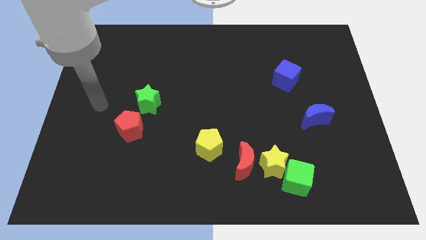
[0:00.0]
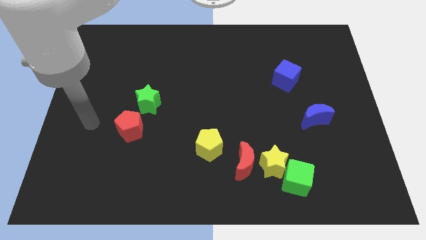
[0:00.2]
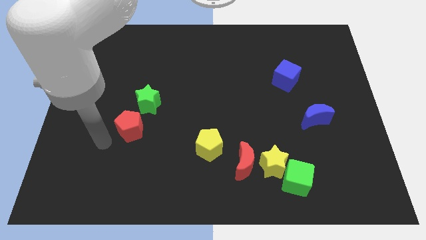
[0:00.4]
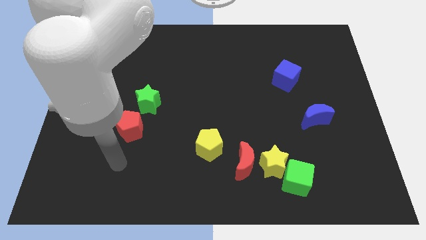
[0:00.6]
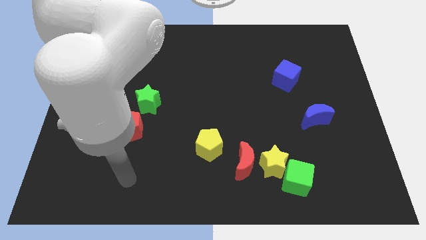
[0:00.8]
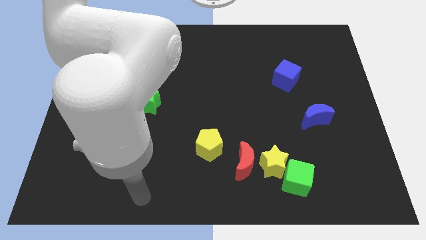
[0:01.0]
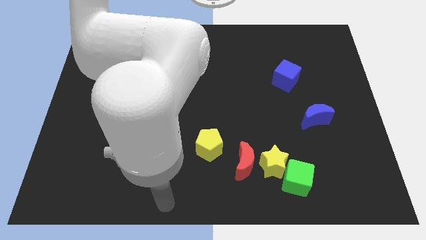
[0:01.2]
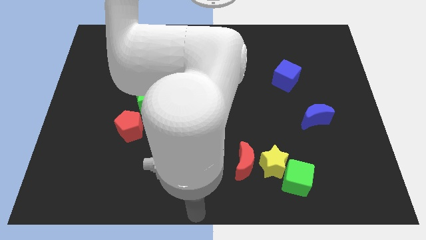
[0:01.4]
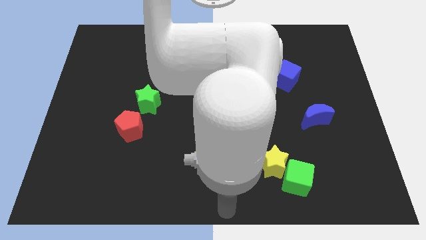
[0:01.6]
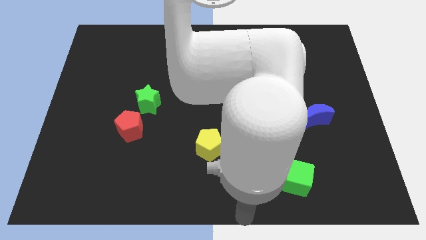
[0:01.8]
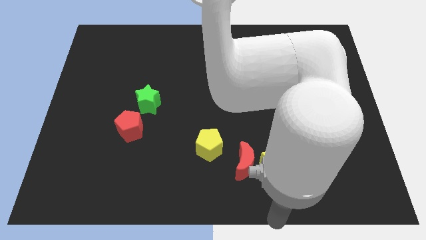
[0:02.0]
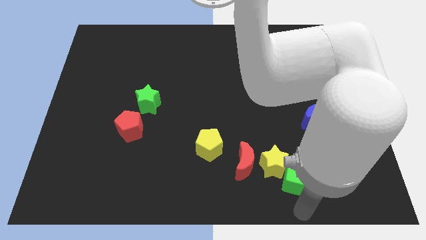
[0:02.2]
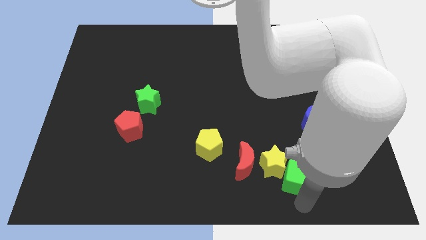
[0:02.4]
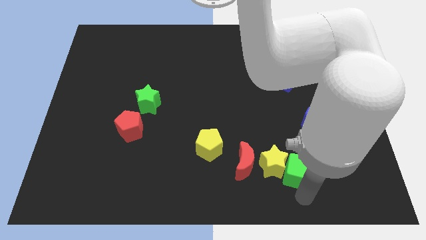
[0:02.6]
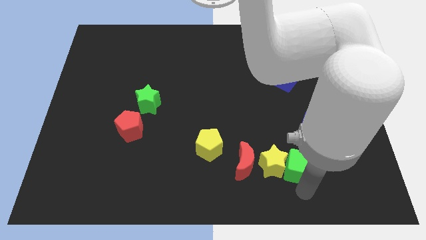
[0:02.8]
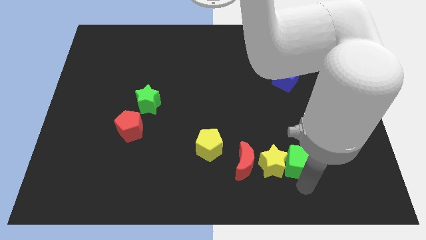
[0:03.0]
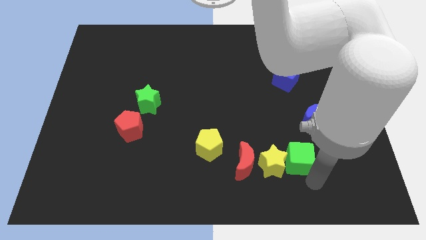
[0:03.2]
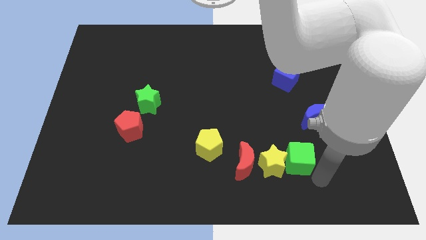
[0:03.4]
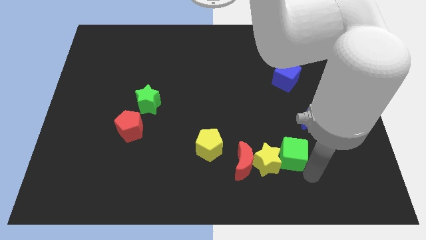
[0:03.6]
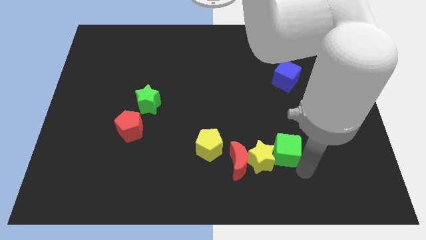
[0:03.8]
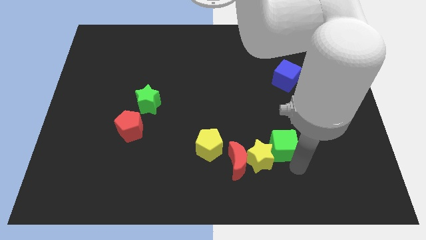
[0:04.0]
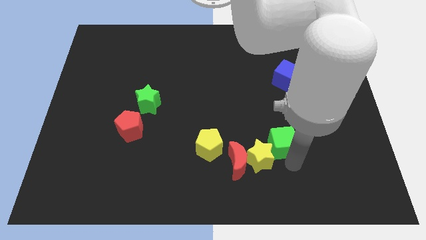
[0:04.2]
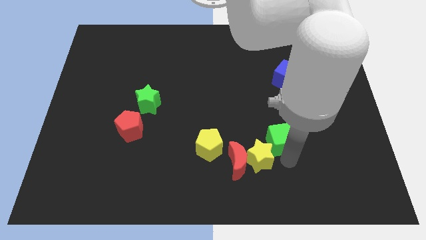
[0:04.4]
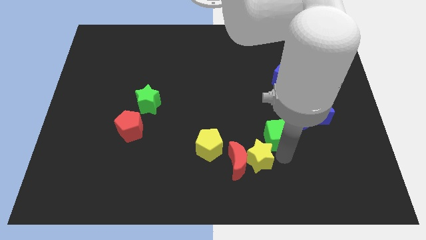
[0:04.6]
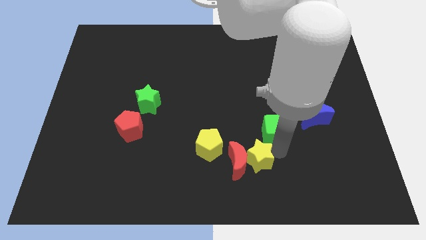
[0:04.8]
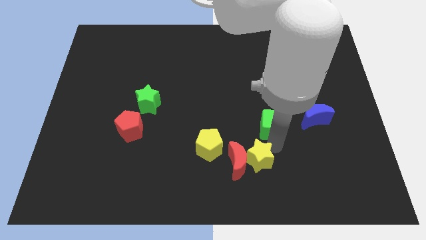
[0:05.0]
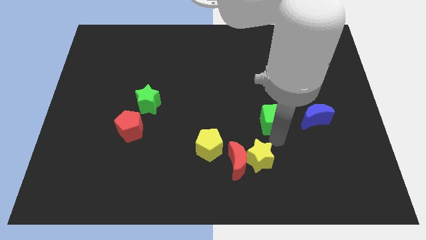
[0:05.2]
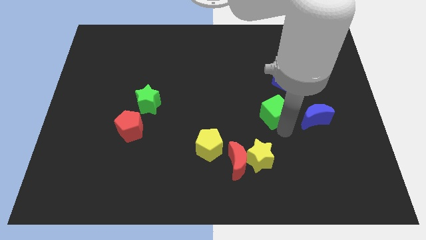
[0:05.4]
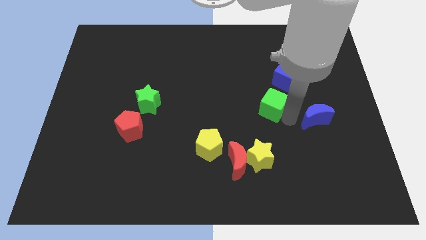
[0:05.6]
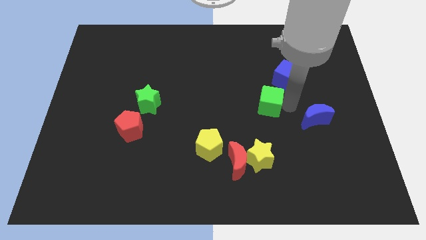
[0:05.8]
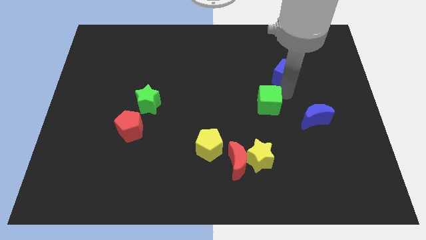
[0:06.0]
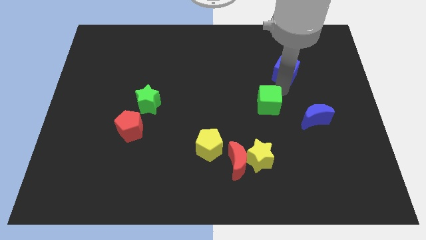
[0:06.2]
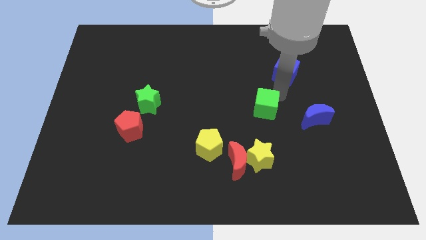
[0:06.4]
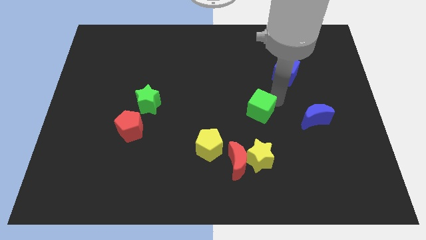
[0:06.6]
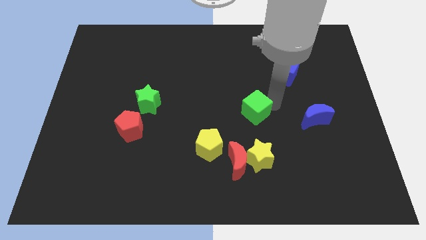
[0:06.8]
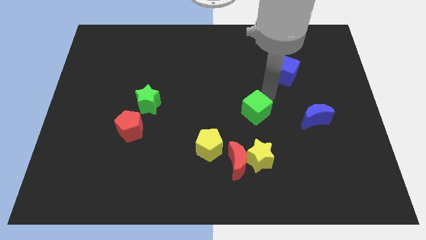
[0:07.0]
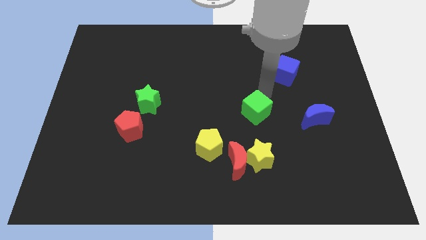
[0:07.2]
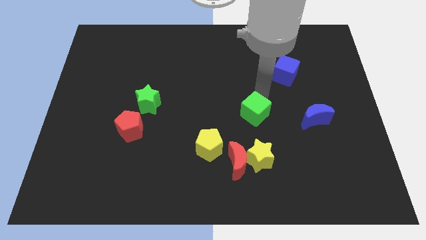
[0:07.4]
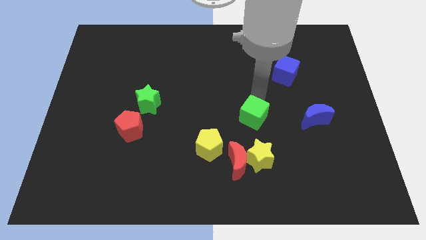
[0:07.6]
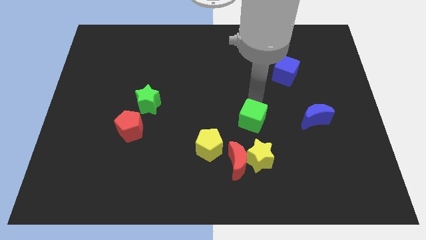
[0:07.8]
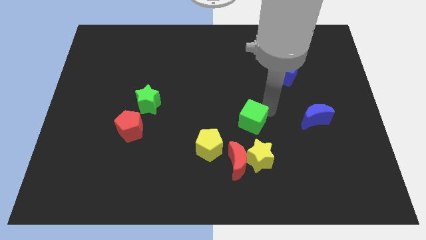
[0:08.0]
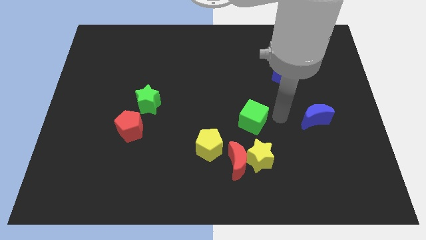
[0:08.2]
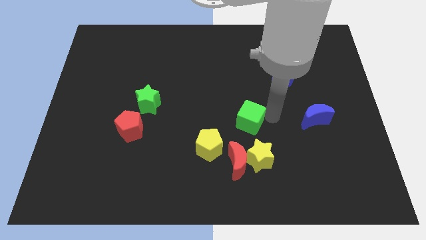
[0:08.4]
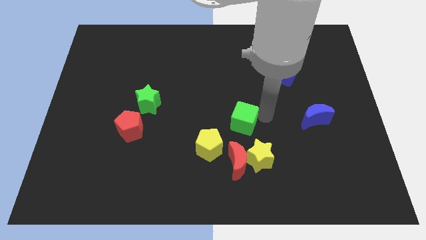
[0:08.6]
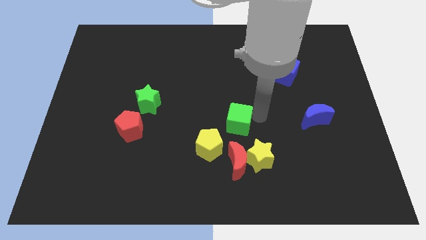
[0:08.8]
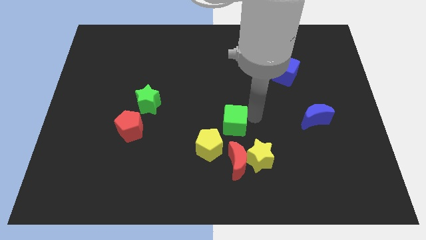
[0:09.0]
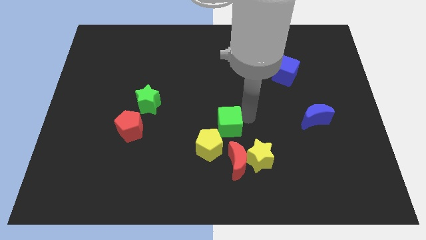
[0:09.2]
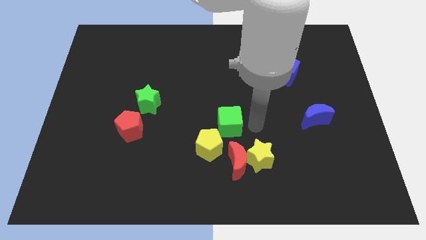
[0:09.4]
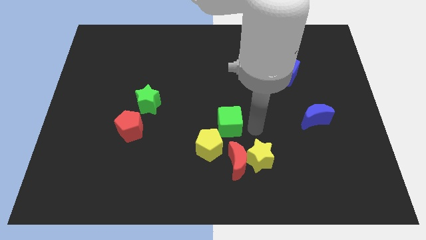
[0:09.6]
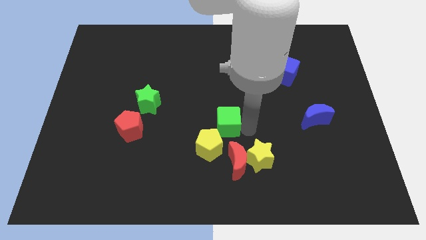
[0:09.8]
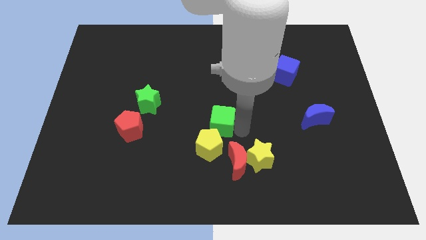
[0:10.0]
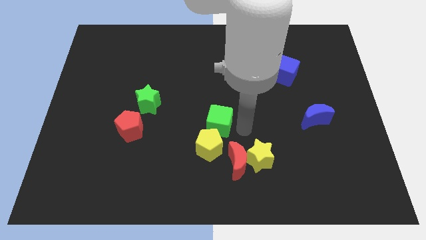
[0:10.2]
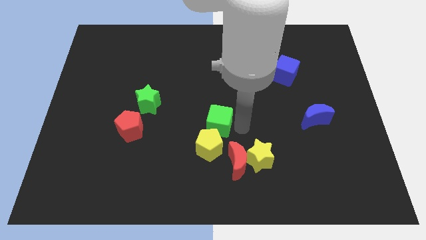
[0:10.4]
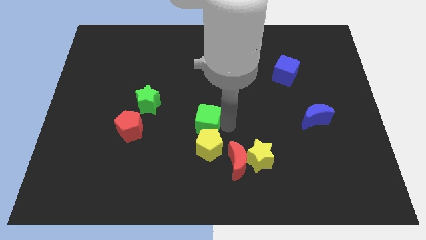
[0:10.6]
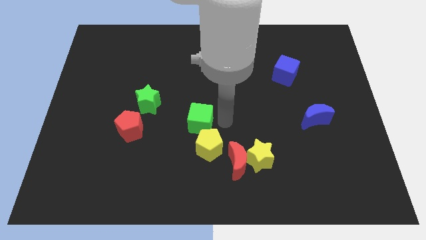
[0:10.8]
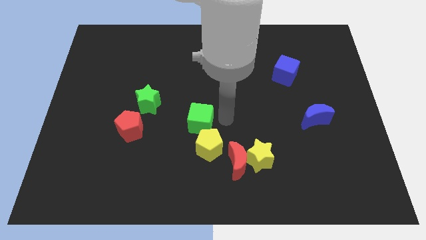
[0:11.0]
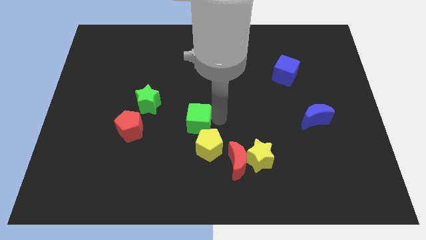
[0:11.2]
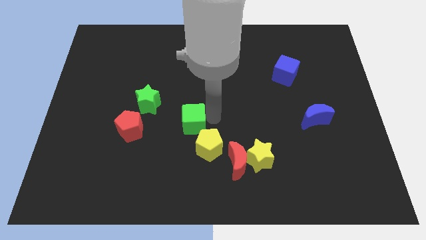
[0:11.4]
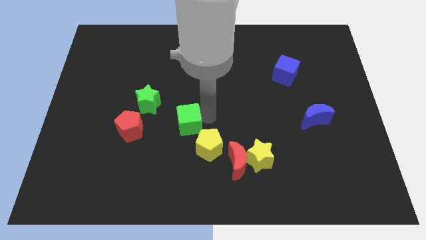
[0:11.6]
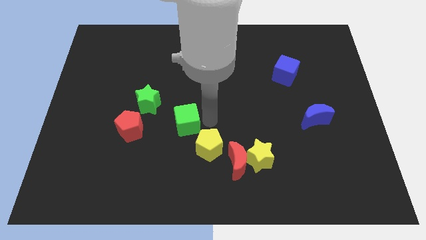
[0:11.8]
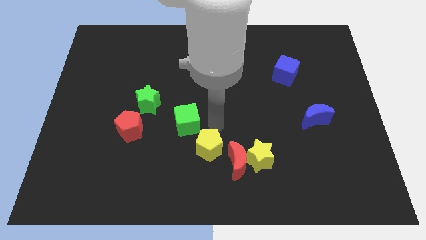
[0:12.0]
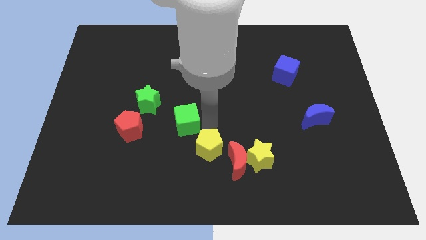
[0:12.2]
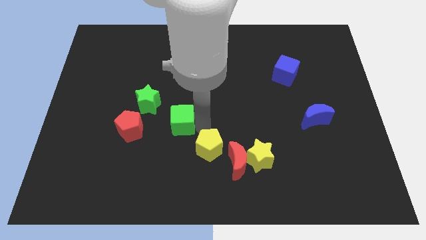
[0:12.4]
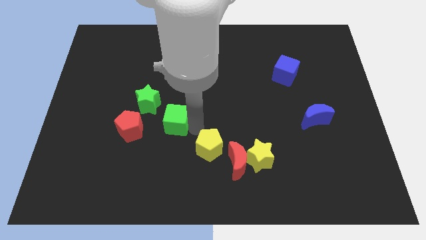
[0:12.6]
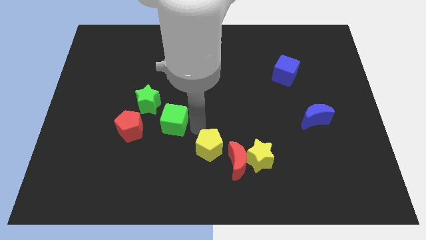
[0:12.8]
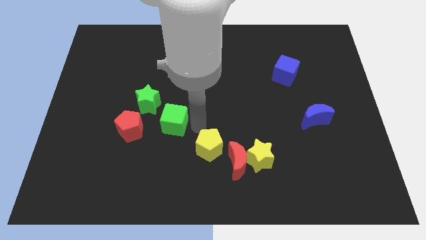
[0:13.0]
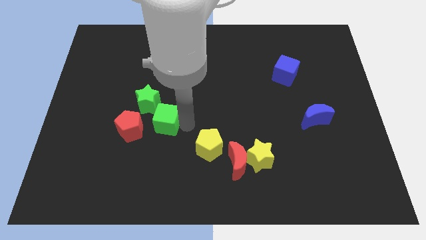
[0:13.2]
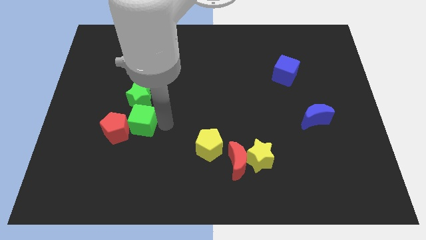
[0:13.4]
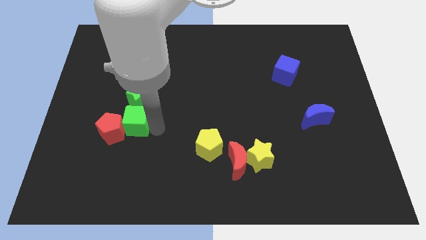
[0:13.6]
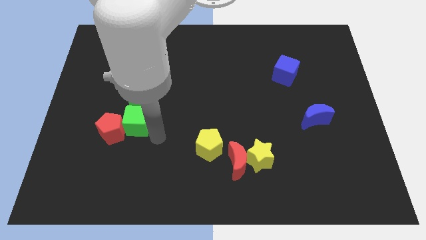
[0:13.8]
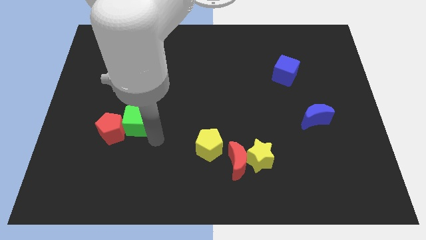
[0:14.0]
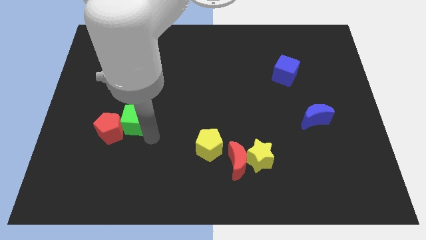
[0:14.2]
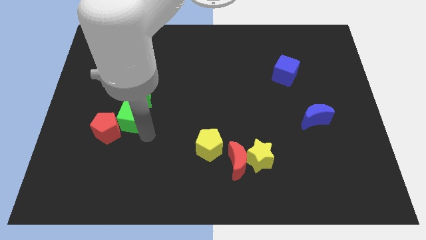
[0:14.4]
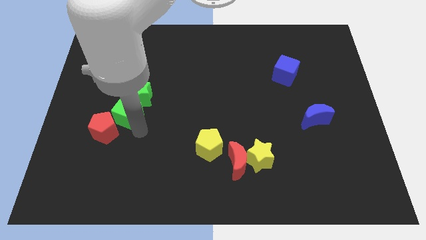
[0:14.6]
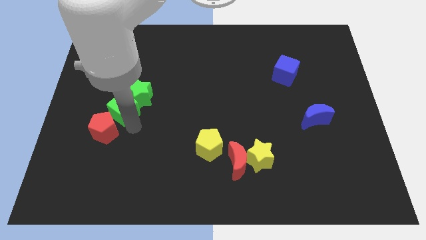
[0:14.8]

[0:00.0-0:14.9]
move the green cube to the left of the green star
